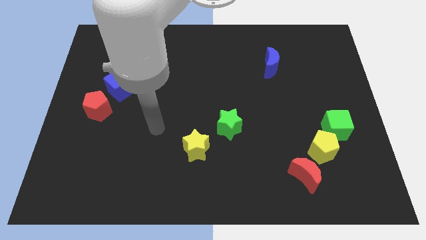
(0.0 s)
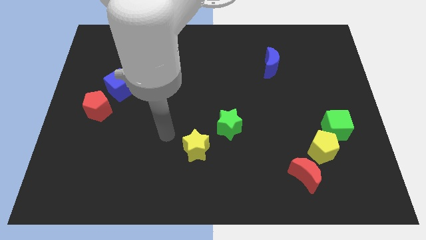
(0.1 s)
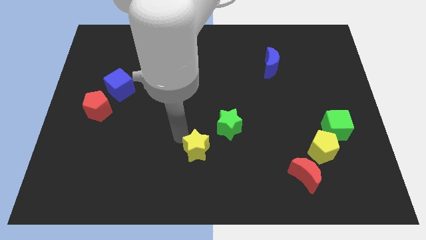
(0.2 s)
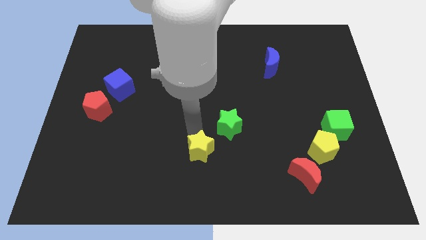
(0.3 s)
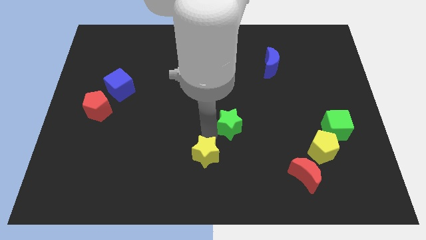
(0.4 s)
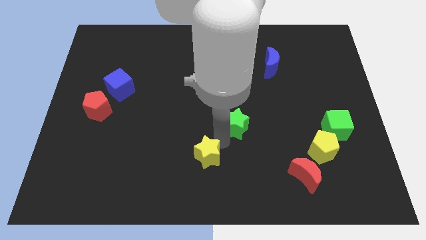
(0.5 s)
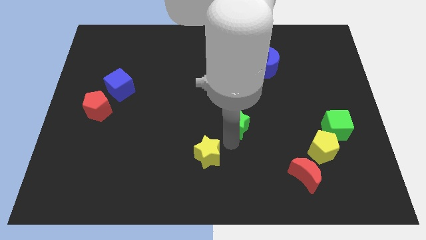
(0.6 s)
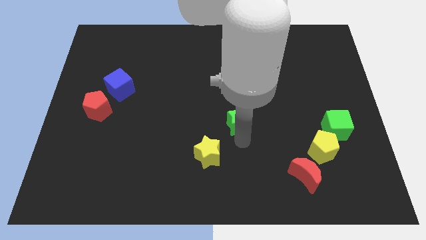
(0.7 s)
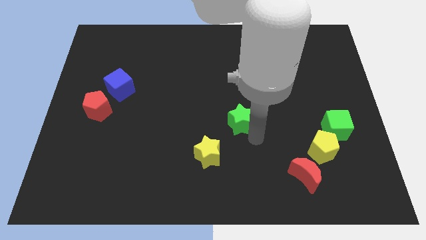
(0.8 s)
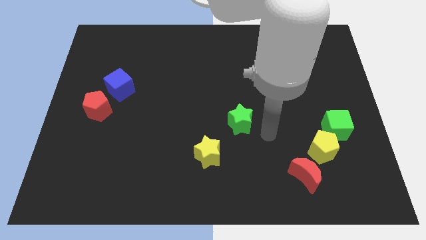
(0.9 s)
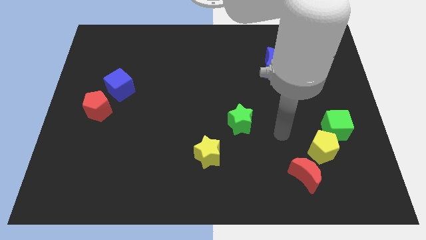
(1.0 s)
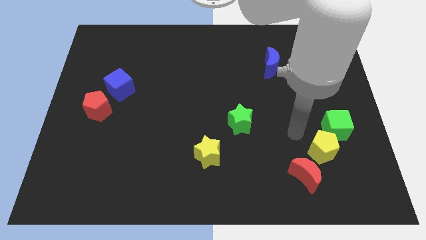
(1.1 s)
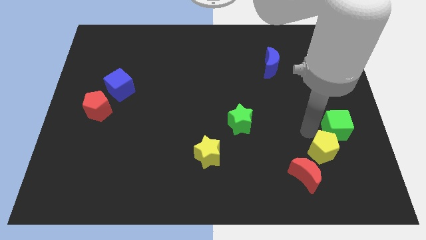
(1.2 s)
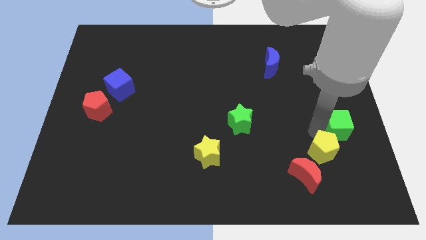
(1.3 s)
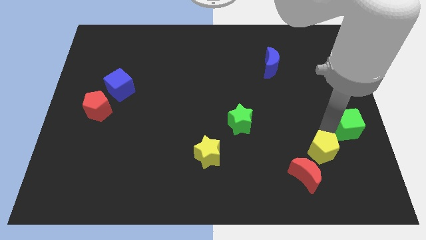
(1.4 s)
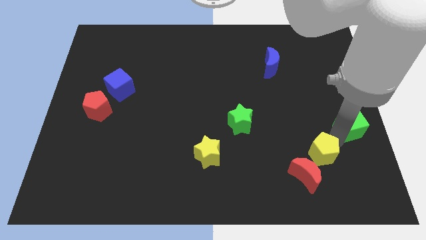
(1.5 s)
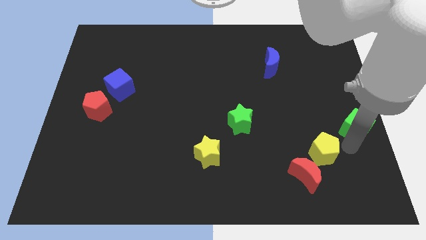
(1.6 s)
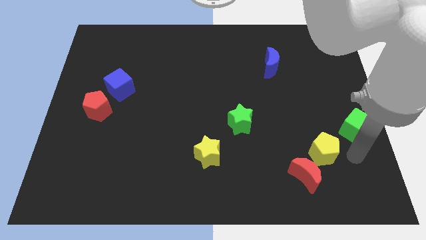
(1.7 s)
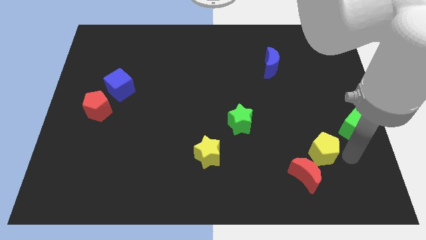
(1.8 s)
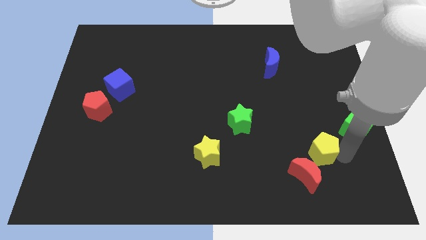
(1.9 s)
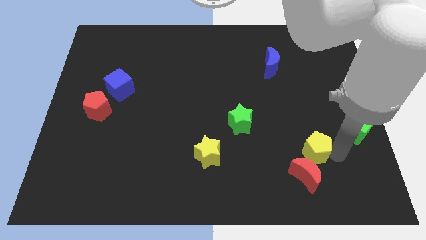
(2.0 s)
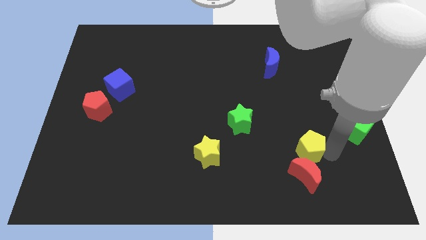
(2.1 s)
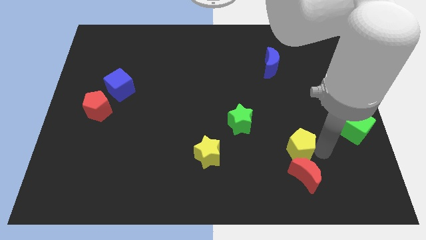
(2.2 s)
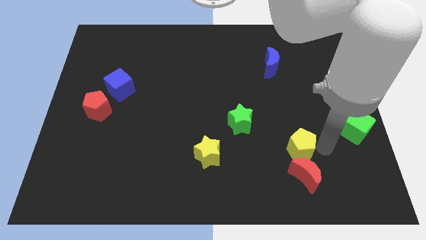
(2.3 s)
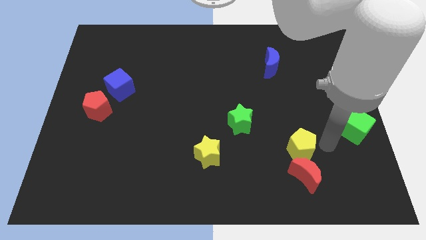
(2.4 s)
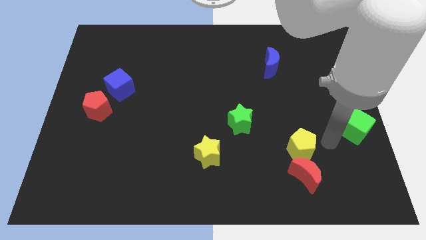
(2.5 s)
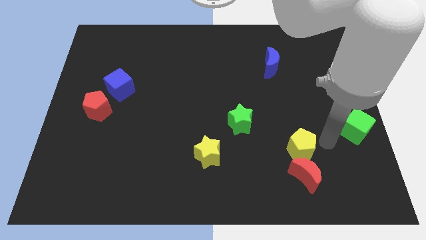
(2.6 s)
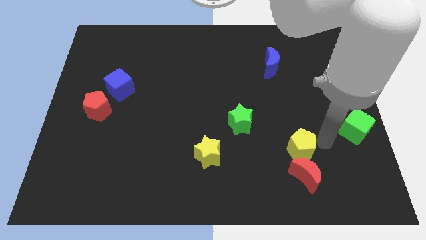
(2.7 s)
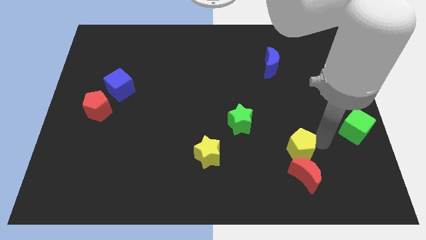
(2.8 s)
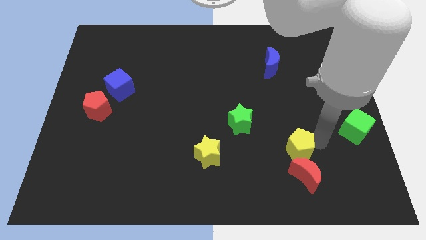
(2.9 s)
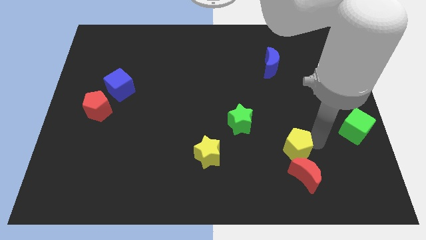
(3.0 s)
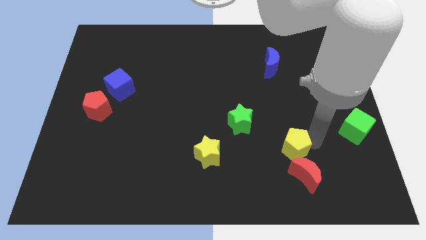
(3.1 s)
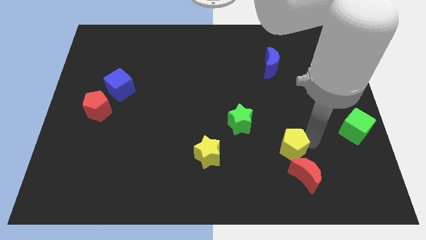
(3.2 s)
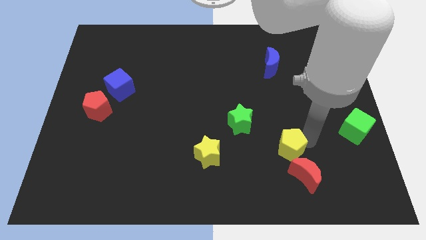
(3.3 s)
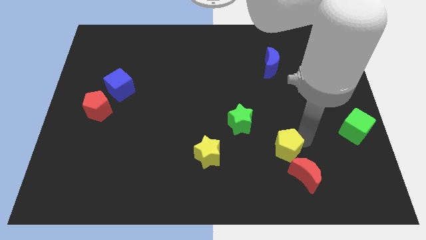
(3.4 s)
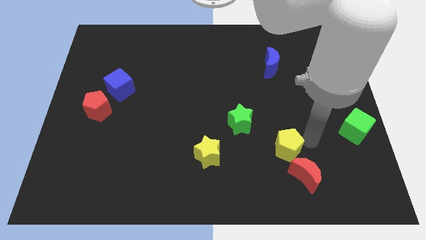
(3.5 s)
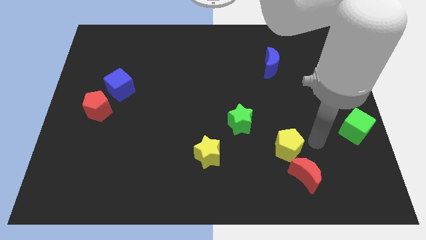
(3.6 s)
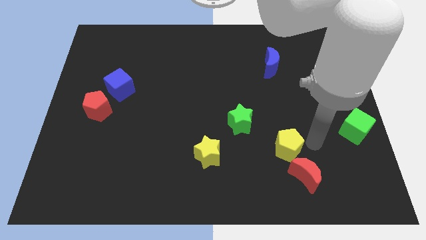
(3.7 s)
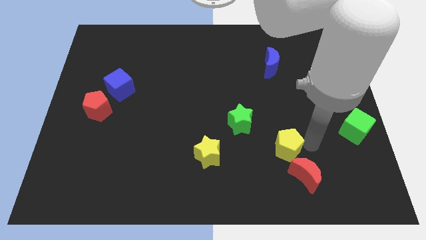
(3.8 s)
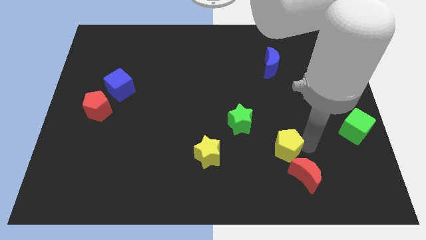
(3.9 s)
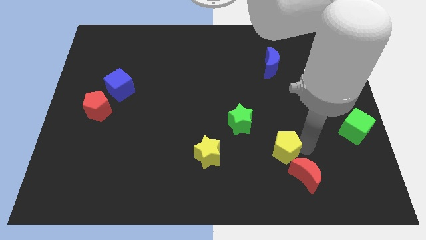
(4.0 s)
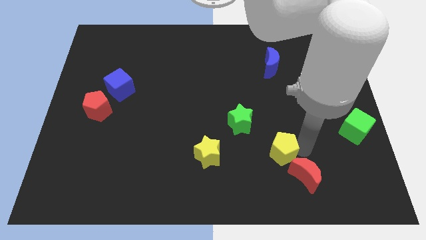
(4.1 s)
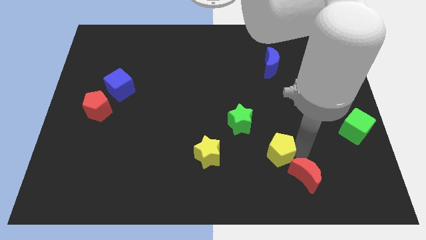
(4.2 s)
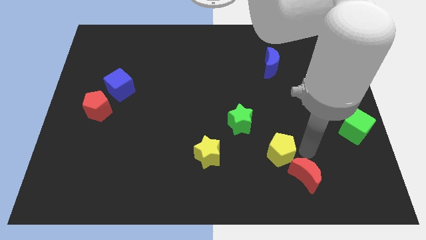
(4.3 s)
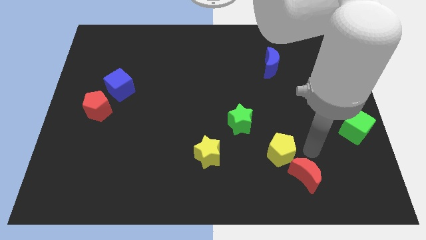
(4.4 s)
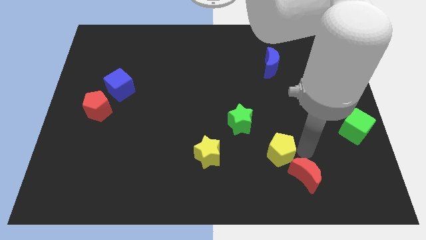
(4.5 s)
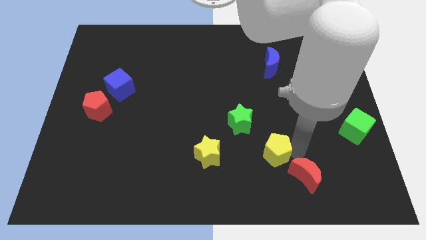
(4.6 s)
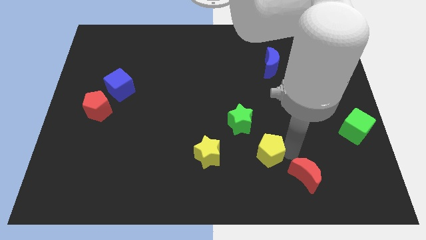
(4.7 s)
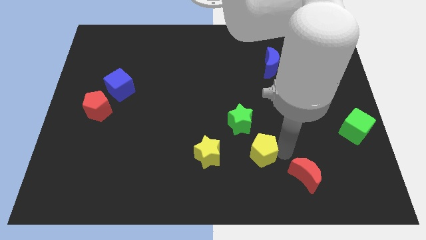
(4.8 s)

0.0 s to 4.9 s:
put the yellow pentagon below the green star

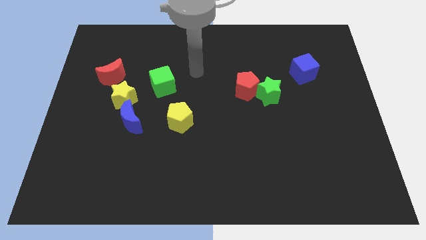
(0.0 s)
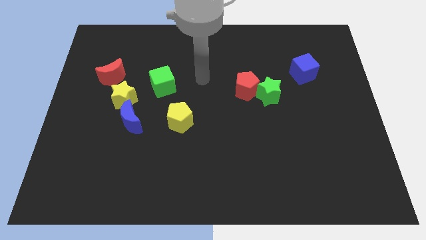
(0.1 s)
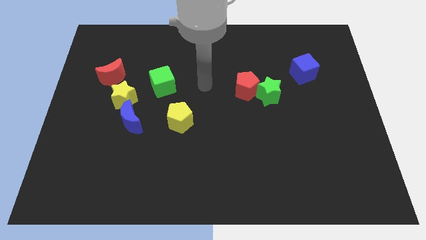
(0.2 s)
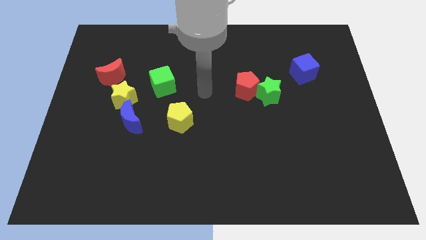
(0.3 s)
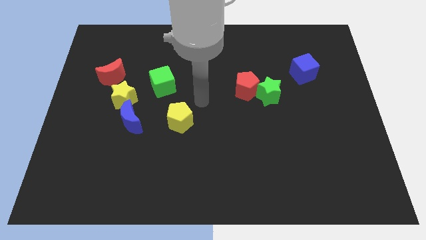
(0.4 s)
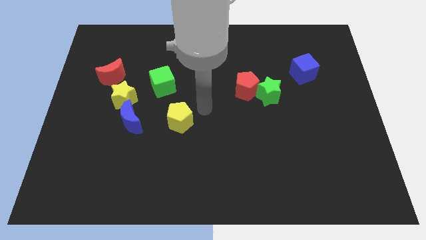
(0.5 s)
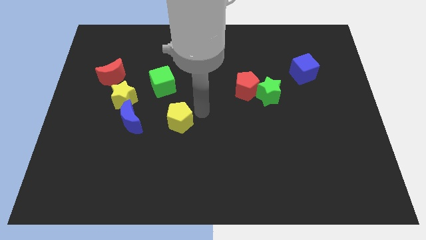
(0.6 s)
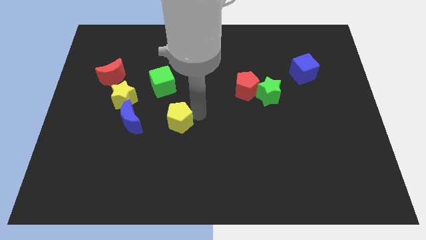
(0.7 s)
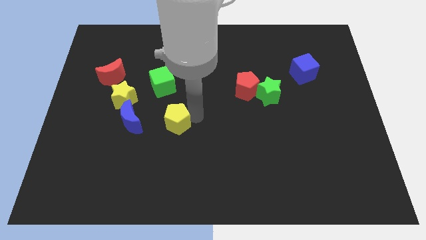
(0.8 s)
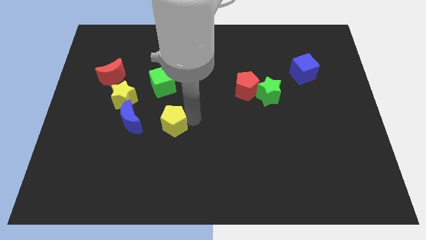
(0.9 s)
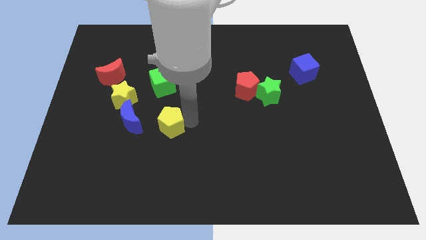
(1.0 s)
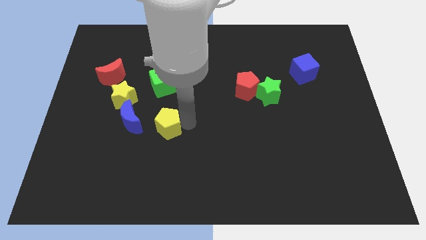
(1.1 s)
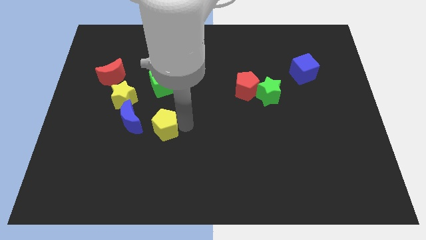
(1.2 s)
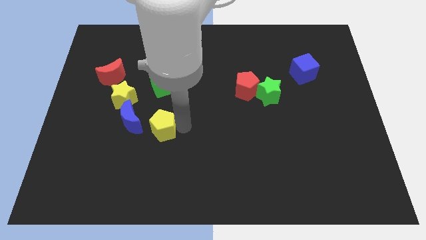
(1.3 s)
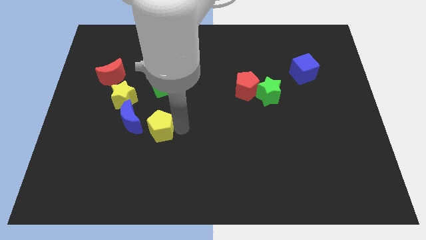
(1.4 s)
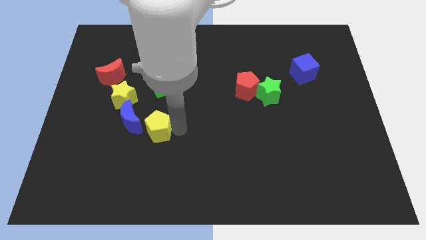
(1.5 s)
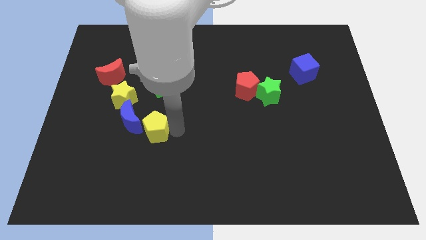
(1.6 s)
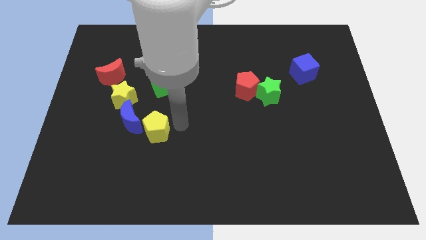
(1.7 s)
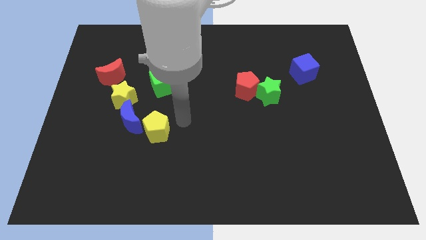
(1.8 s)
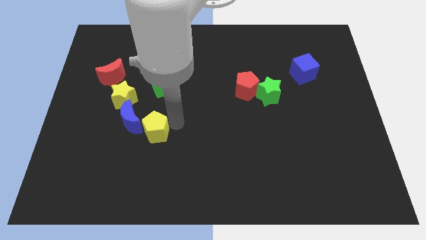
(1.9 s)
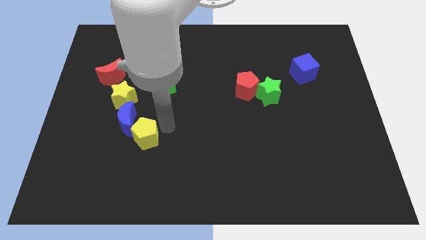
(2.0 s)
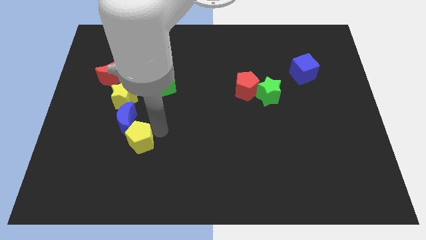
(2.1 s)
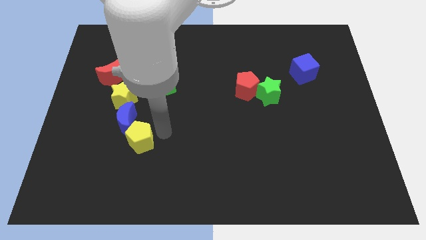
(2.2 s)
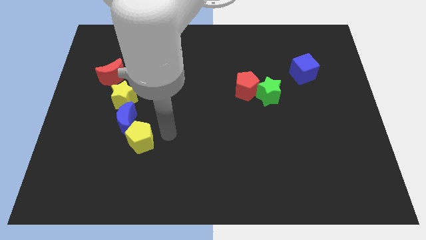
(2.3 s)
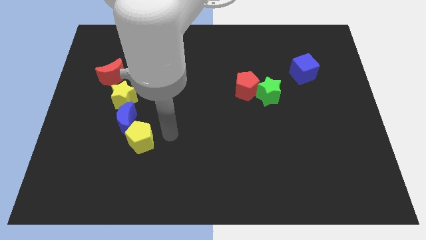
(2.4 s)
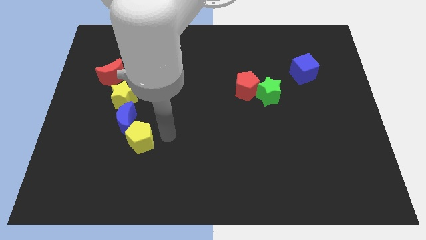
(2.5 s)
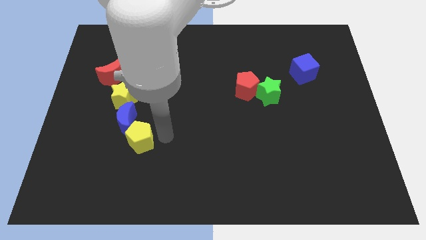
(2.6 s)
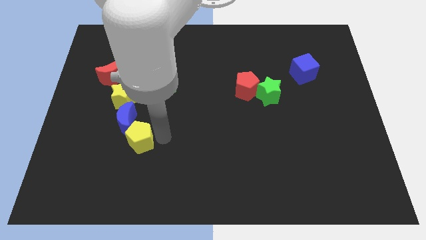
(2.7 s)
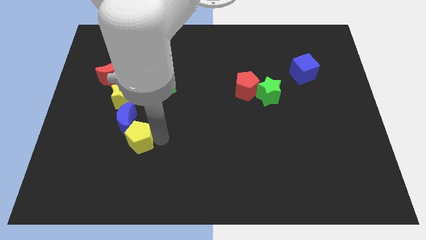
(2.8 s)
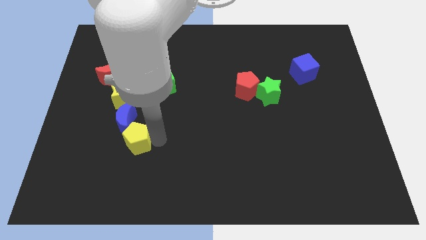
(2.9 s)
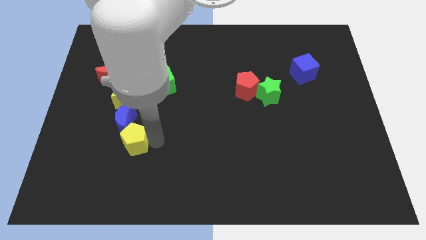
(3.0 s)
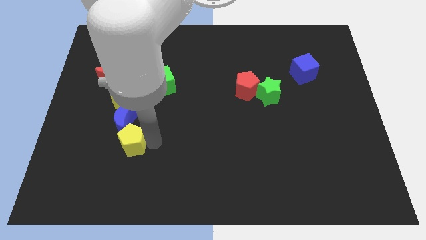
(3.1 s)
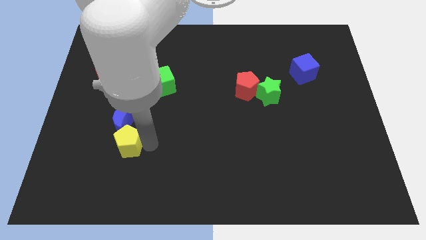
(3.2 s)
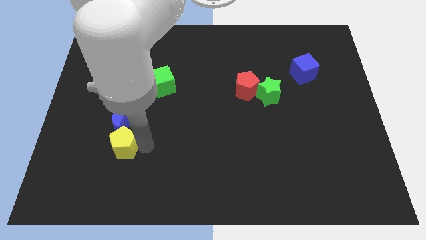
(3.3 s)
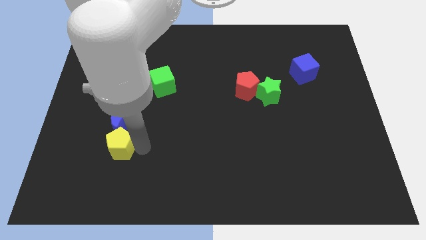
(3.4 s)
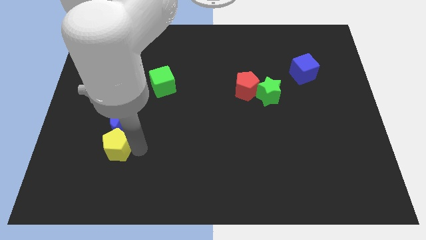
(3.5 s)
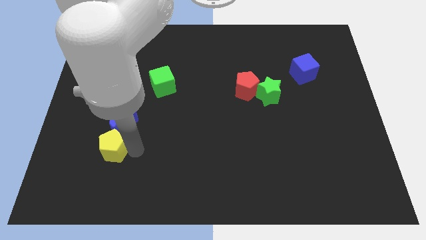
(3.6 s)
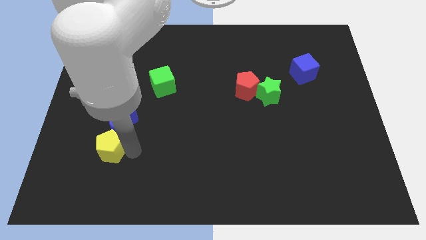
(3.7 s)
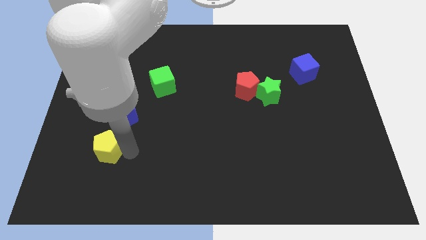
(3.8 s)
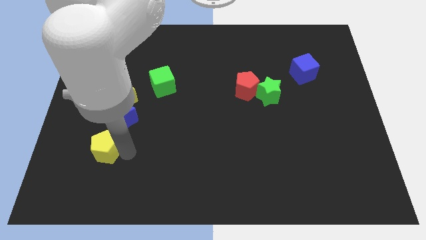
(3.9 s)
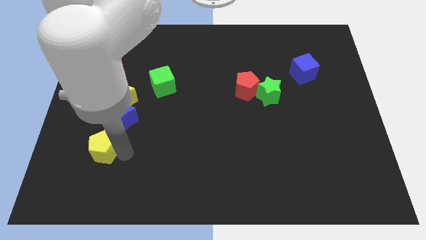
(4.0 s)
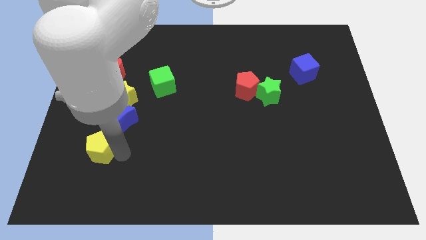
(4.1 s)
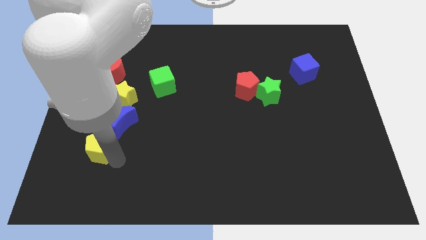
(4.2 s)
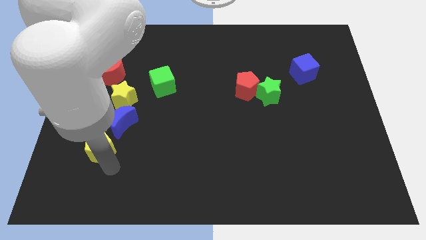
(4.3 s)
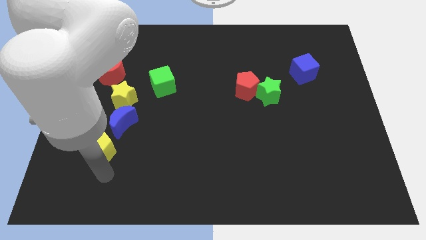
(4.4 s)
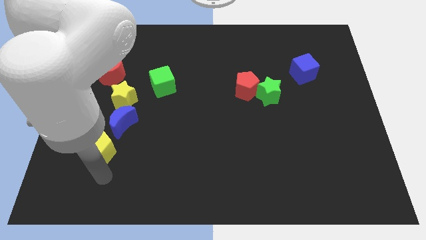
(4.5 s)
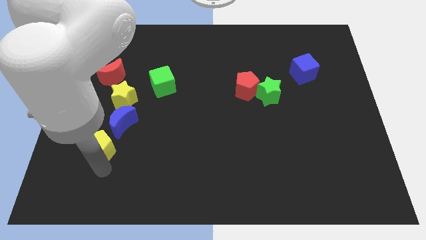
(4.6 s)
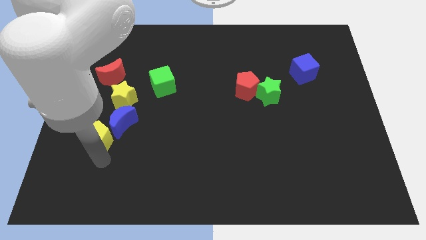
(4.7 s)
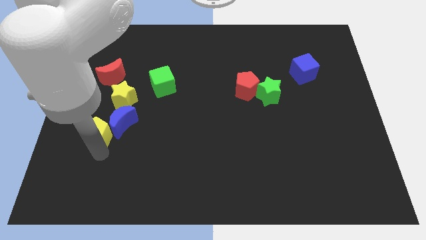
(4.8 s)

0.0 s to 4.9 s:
push the yellow pentagon to the bottom left of the yellow star
